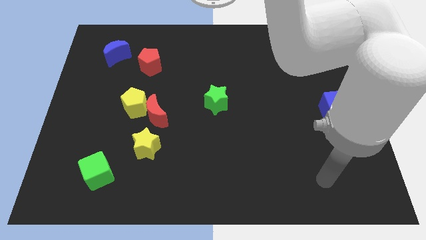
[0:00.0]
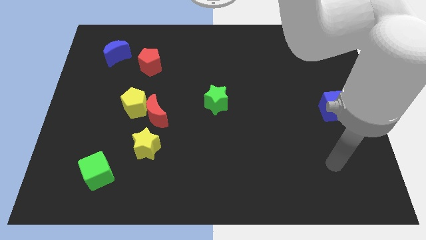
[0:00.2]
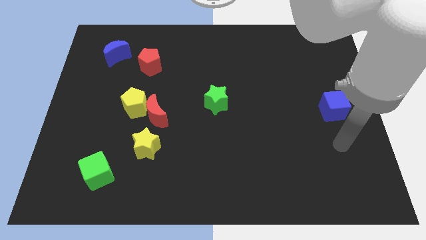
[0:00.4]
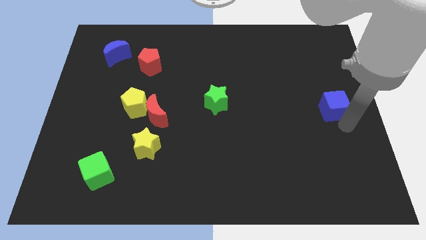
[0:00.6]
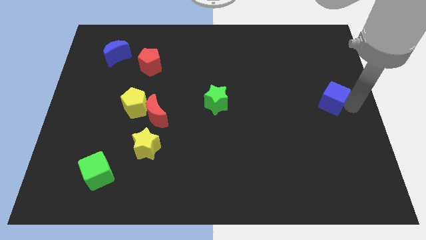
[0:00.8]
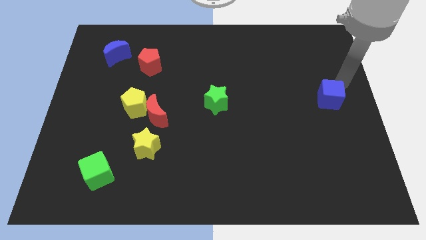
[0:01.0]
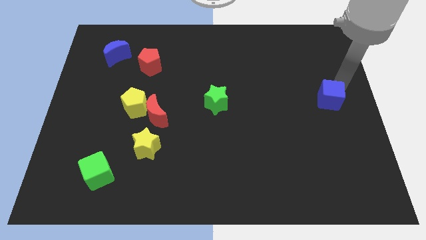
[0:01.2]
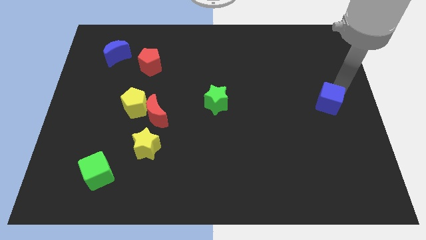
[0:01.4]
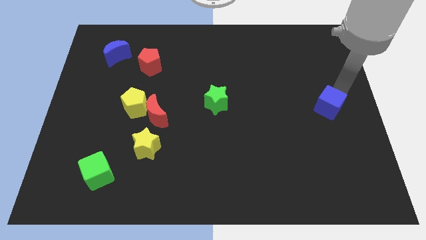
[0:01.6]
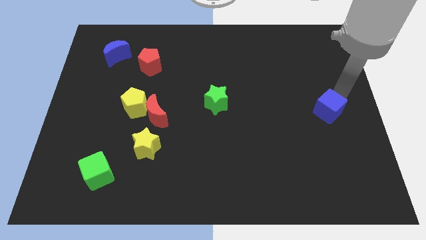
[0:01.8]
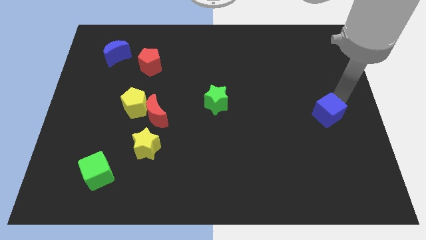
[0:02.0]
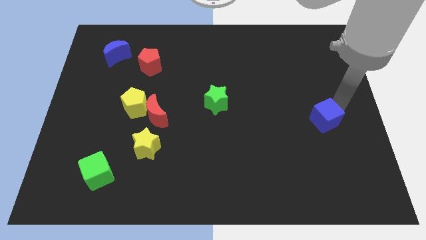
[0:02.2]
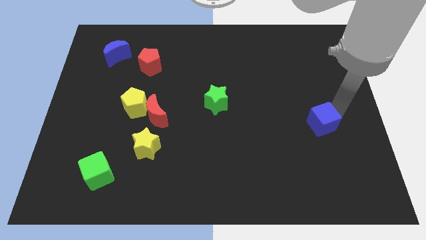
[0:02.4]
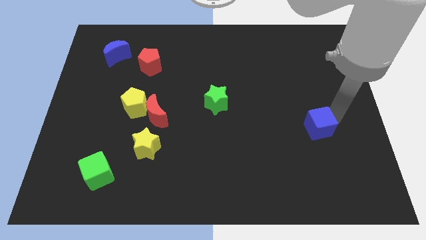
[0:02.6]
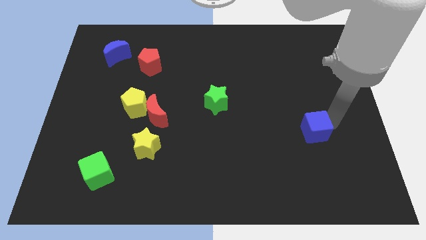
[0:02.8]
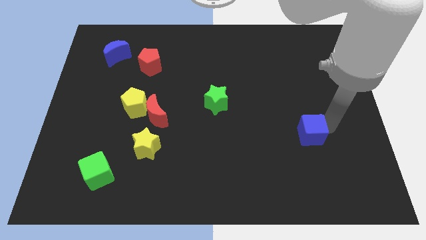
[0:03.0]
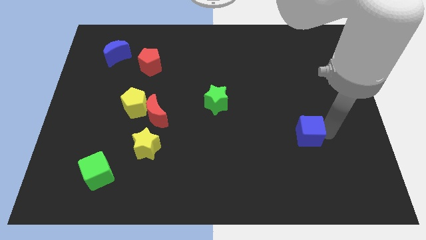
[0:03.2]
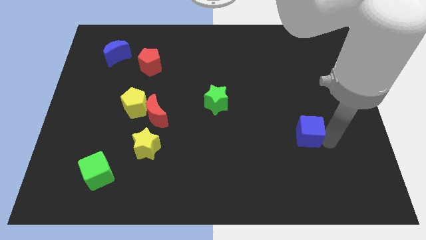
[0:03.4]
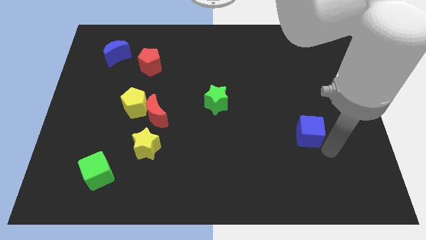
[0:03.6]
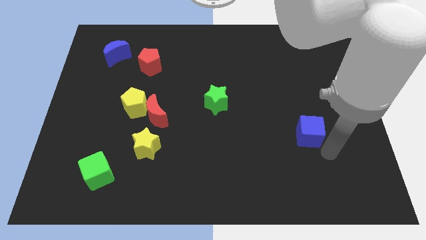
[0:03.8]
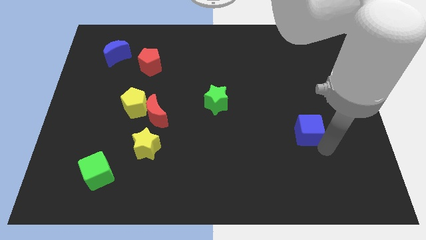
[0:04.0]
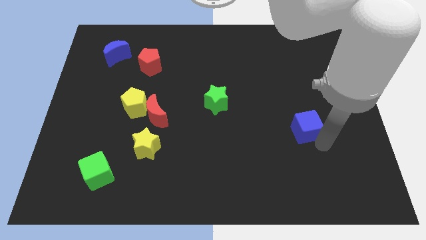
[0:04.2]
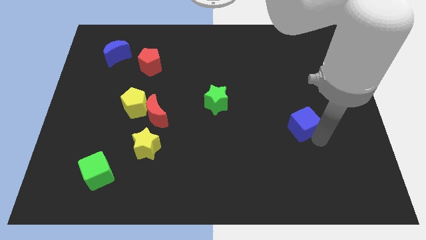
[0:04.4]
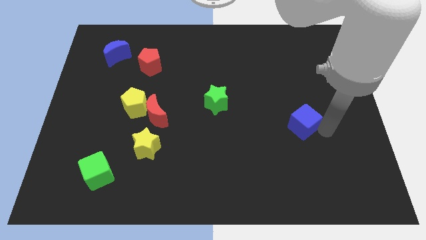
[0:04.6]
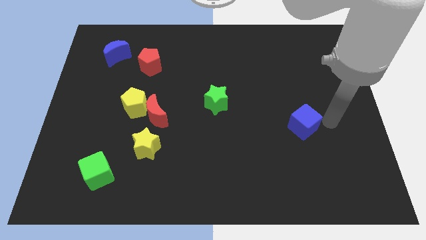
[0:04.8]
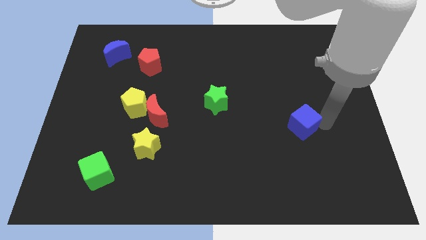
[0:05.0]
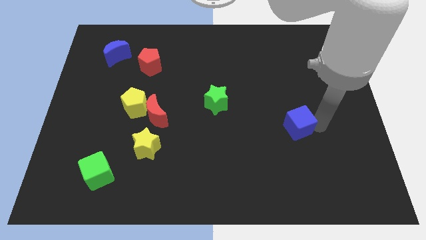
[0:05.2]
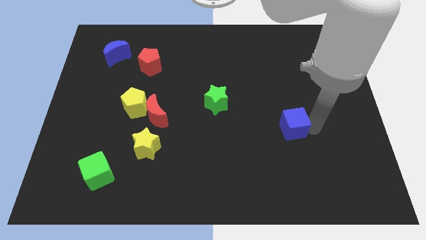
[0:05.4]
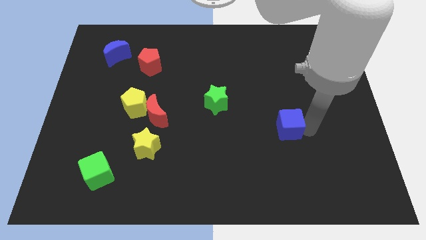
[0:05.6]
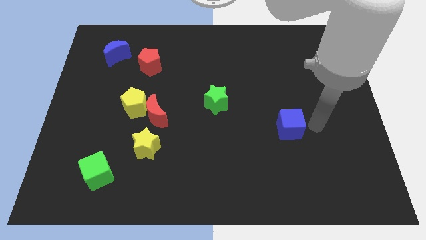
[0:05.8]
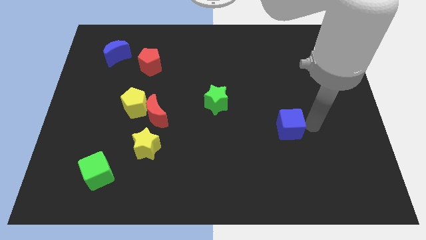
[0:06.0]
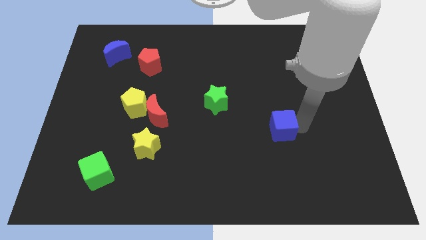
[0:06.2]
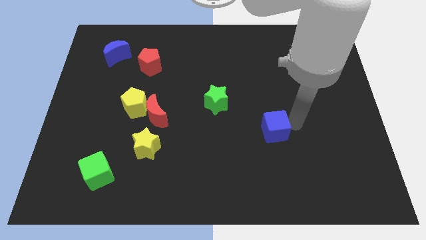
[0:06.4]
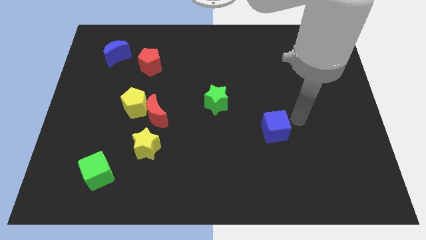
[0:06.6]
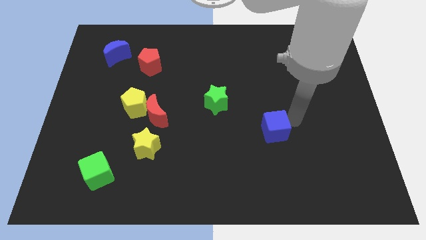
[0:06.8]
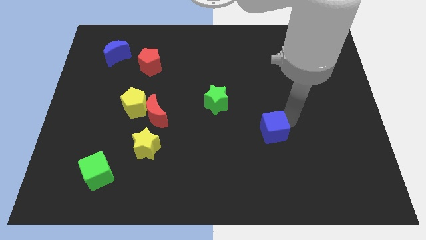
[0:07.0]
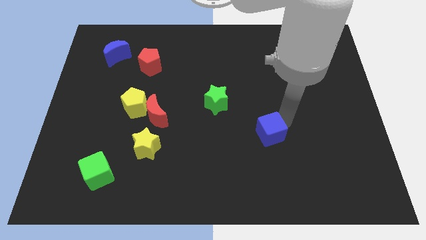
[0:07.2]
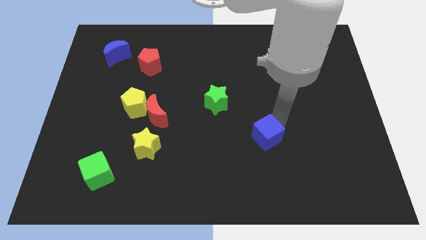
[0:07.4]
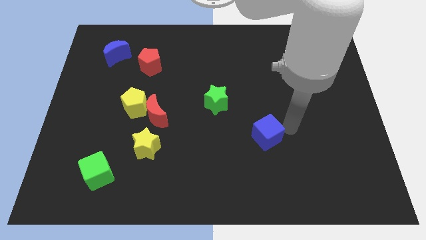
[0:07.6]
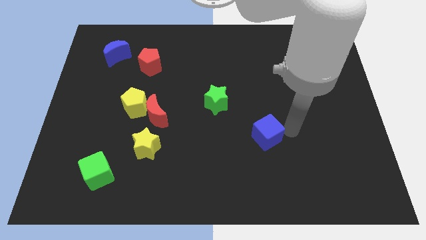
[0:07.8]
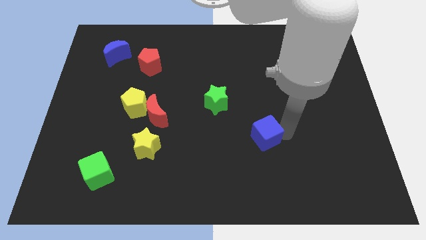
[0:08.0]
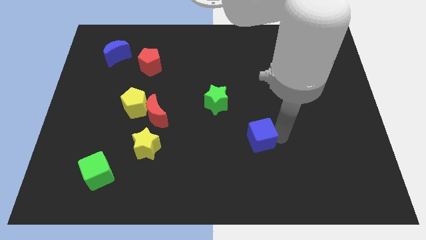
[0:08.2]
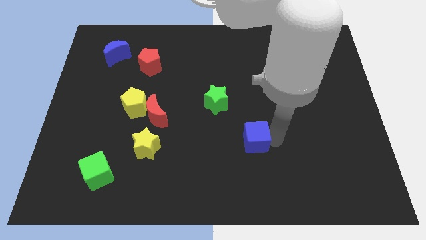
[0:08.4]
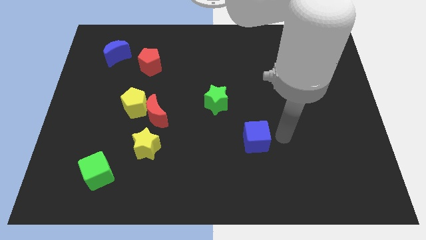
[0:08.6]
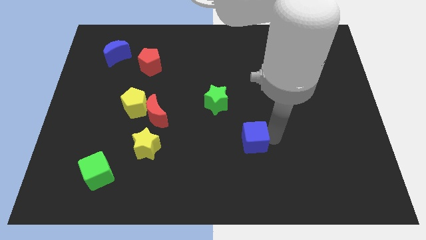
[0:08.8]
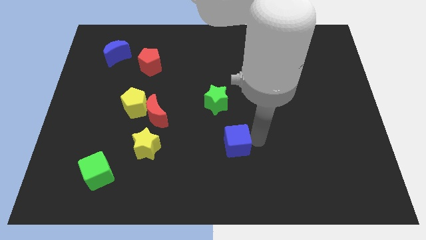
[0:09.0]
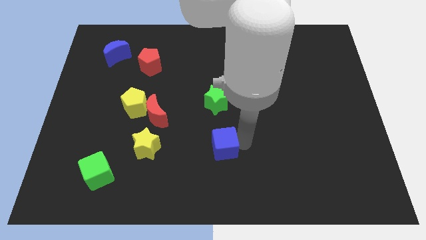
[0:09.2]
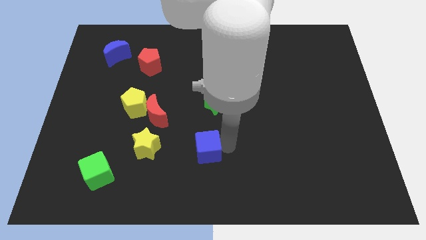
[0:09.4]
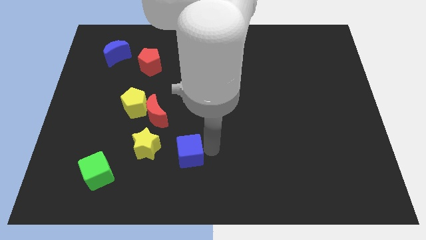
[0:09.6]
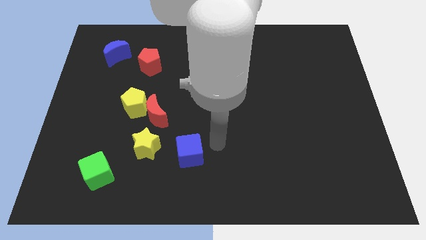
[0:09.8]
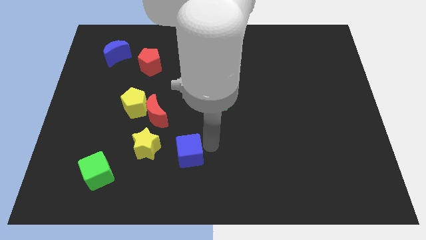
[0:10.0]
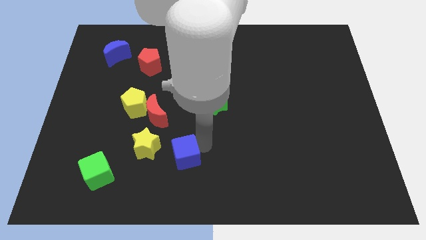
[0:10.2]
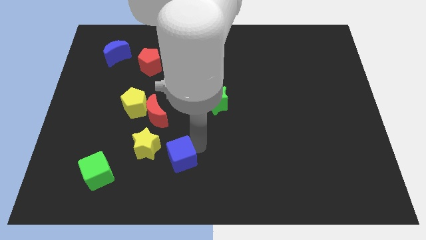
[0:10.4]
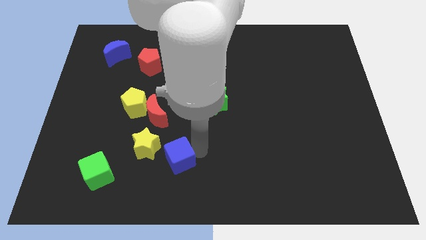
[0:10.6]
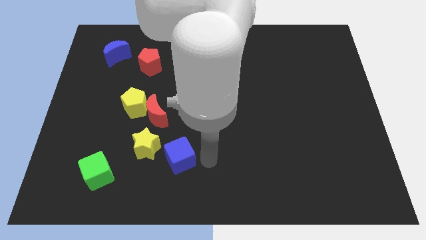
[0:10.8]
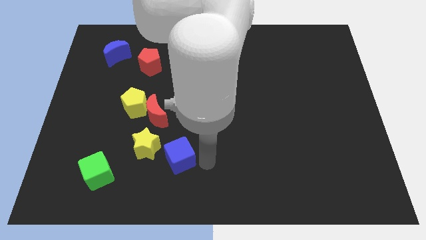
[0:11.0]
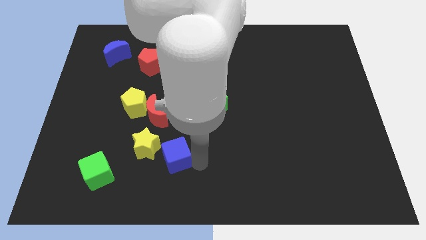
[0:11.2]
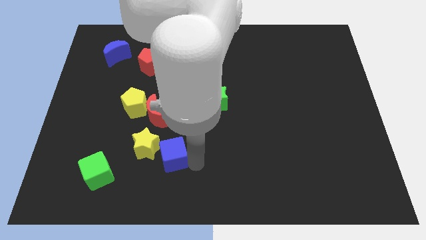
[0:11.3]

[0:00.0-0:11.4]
move the blue cube below the red moon

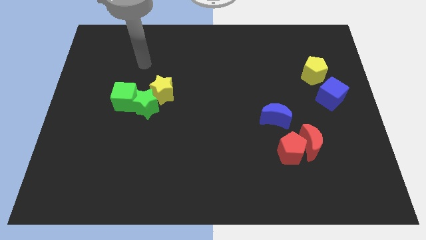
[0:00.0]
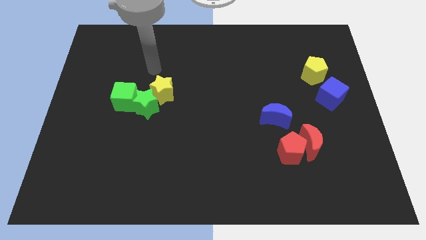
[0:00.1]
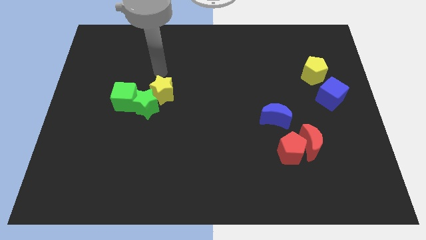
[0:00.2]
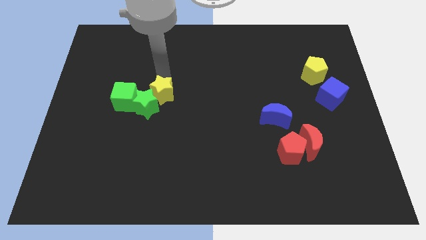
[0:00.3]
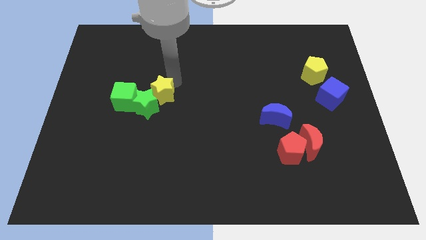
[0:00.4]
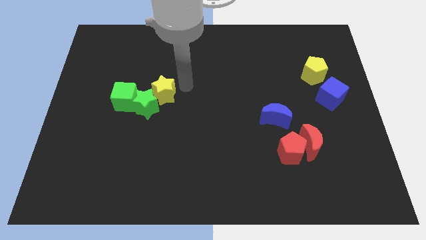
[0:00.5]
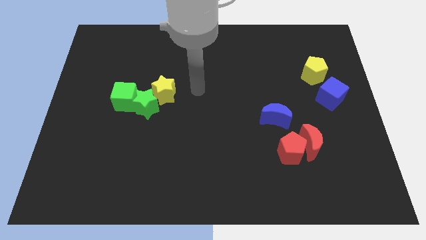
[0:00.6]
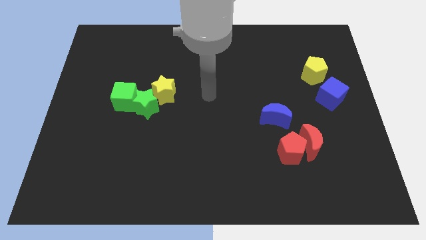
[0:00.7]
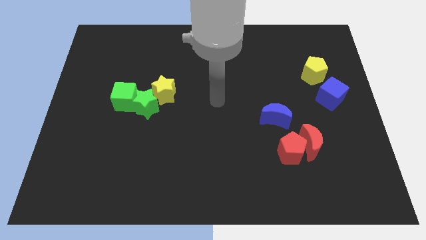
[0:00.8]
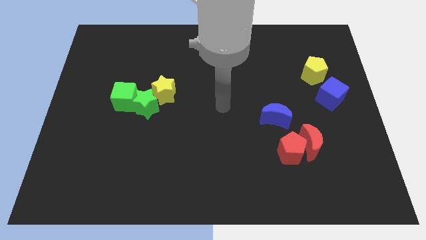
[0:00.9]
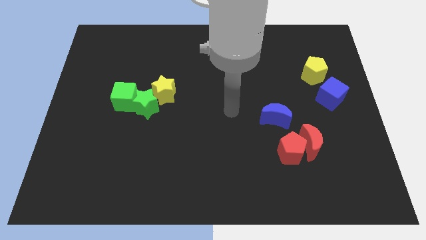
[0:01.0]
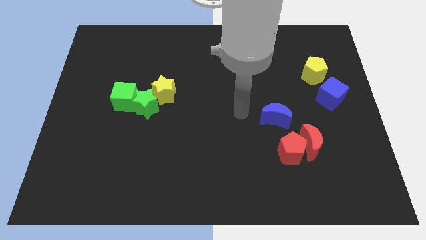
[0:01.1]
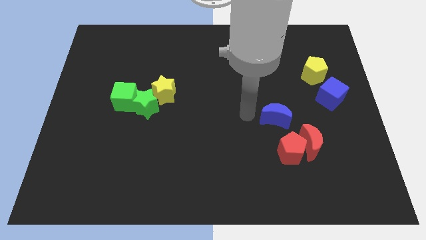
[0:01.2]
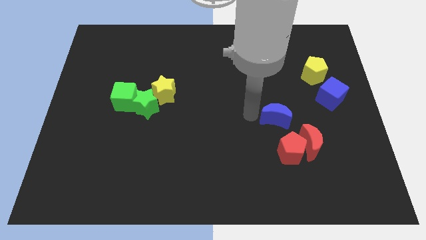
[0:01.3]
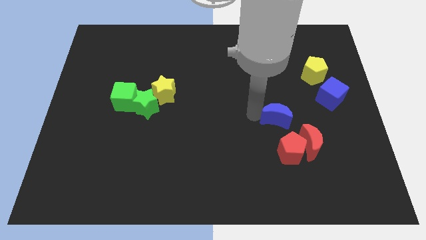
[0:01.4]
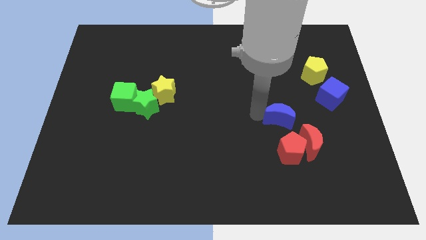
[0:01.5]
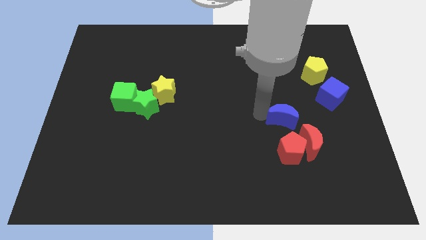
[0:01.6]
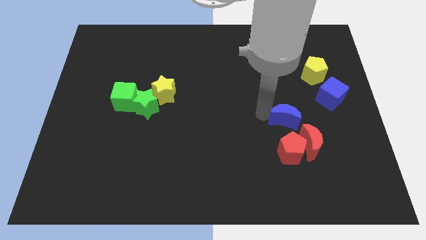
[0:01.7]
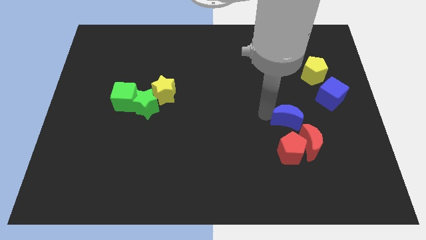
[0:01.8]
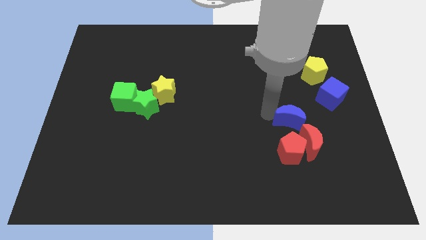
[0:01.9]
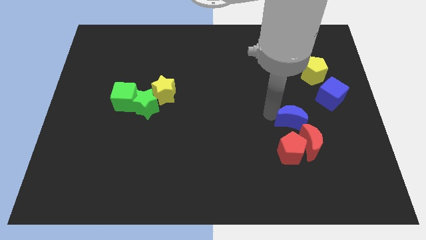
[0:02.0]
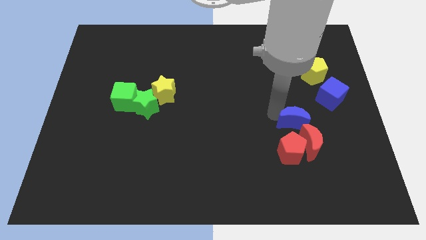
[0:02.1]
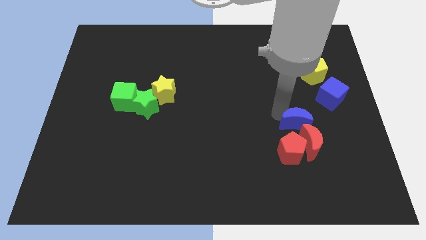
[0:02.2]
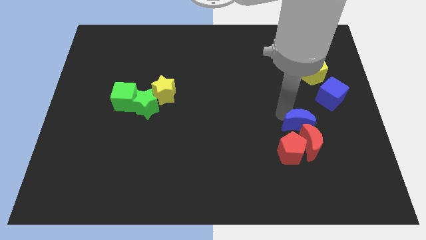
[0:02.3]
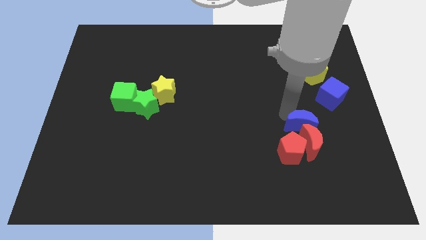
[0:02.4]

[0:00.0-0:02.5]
move the blue moon diagonally up and to the right of the red moon
